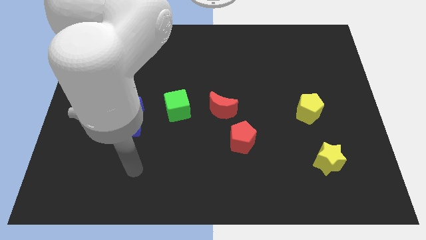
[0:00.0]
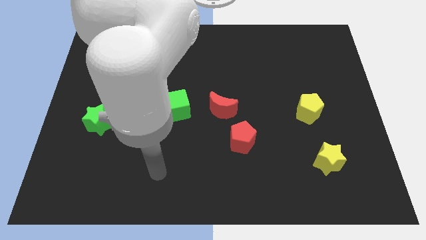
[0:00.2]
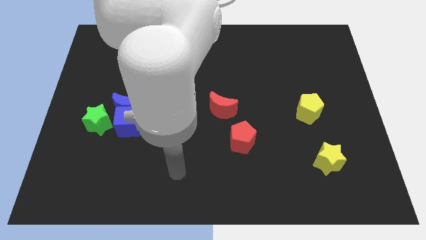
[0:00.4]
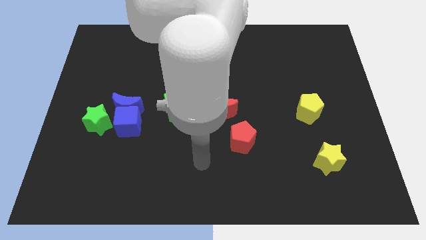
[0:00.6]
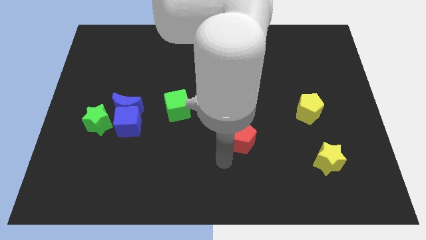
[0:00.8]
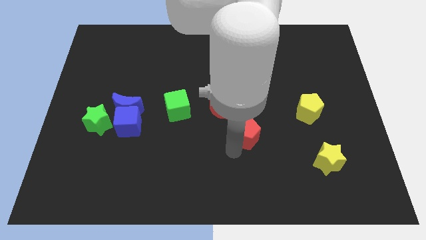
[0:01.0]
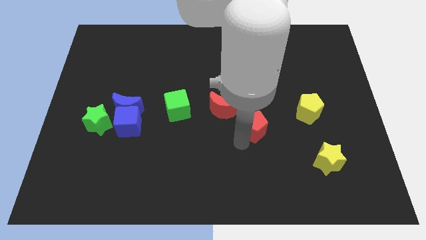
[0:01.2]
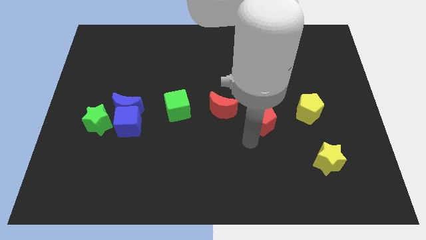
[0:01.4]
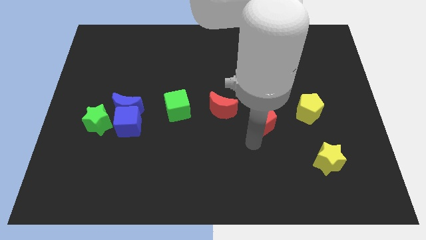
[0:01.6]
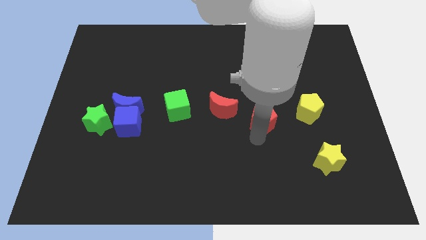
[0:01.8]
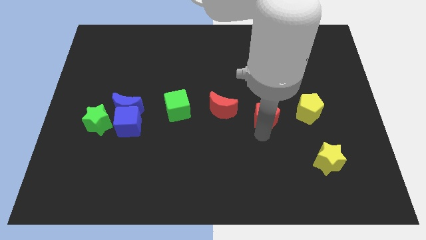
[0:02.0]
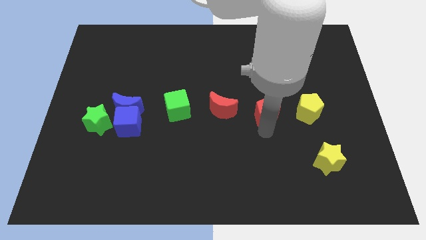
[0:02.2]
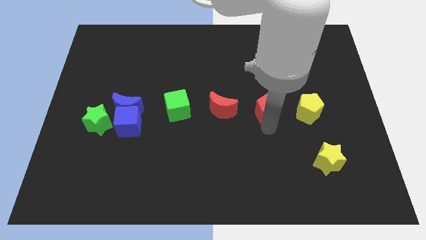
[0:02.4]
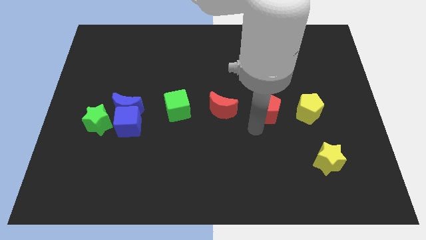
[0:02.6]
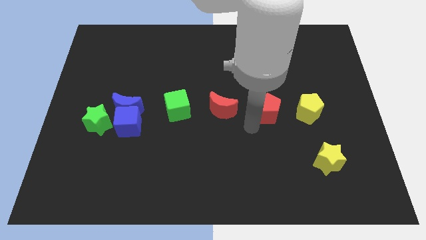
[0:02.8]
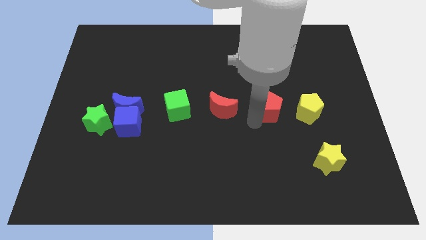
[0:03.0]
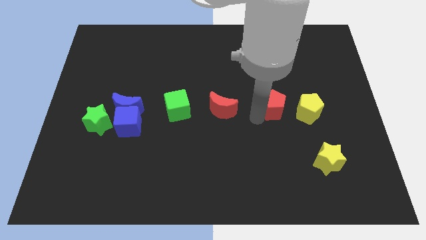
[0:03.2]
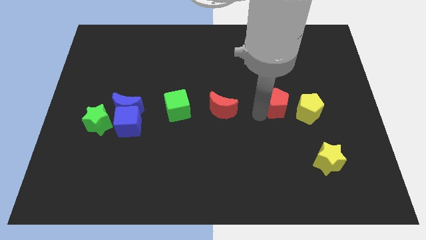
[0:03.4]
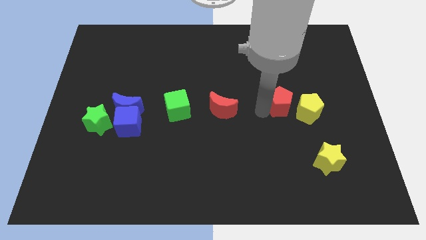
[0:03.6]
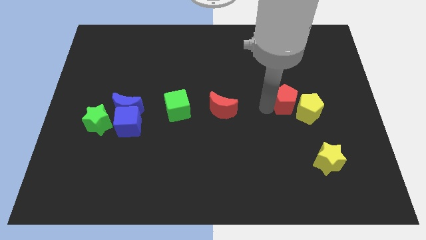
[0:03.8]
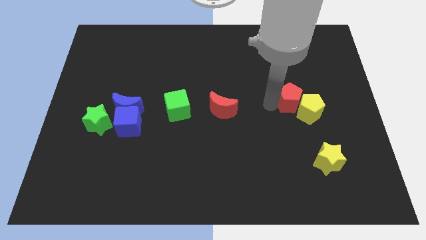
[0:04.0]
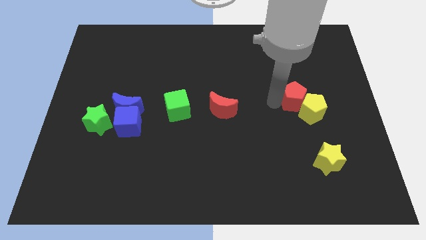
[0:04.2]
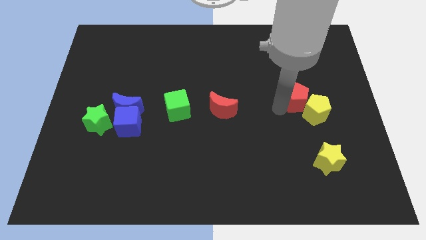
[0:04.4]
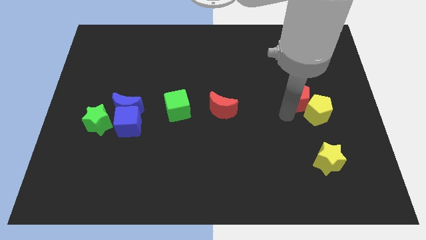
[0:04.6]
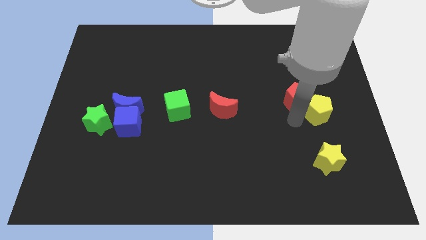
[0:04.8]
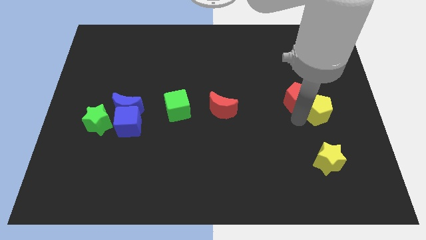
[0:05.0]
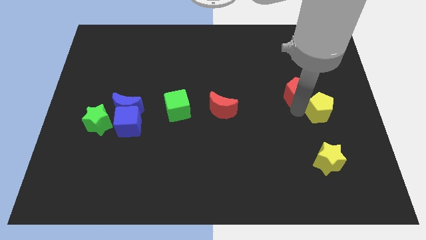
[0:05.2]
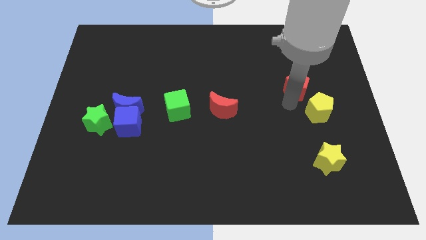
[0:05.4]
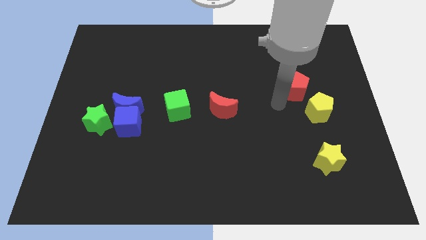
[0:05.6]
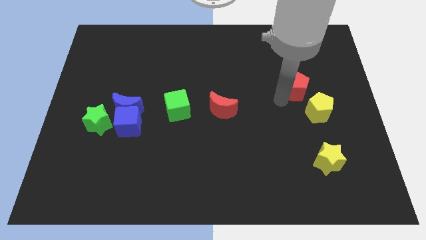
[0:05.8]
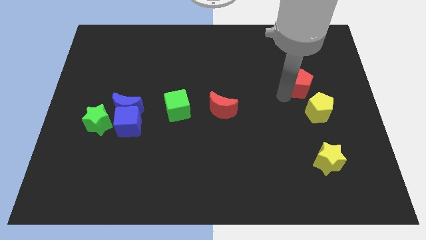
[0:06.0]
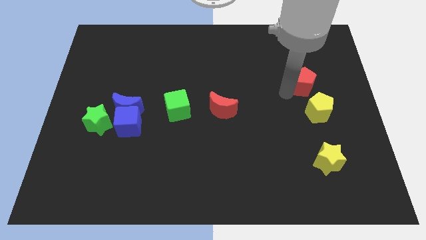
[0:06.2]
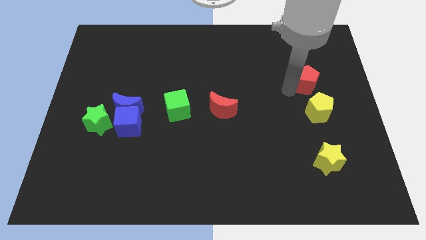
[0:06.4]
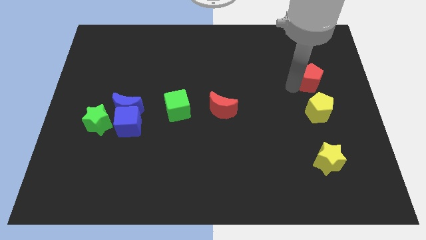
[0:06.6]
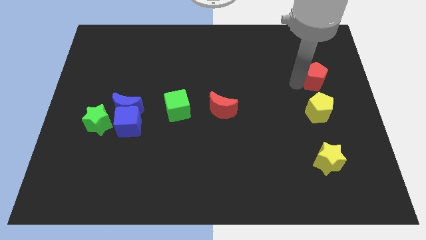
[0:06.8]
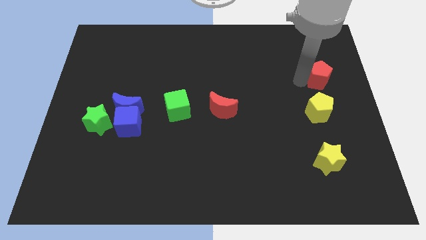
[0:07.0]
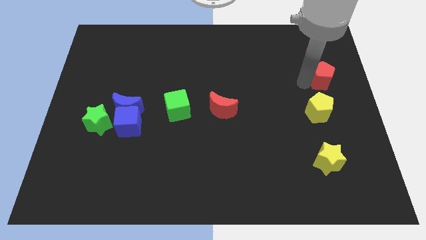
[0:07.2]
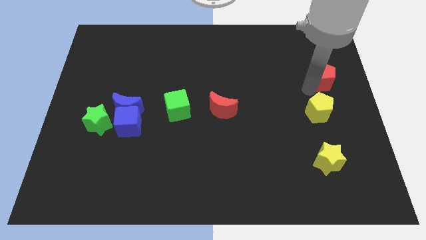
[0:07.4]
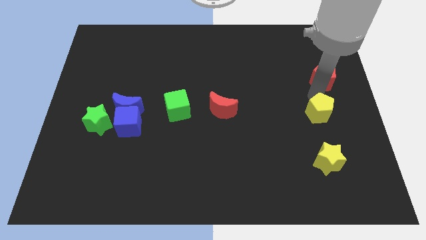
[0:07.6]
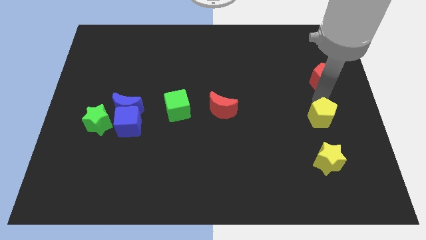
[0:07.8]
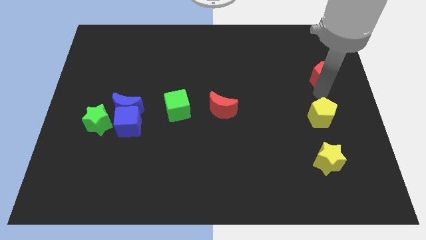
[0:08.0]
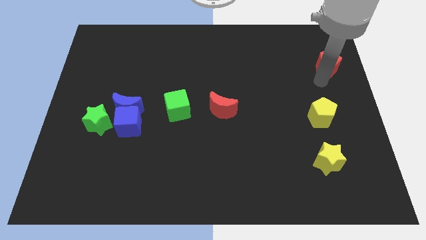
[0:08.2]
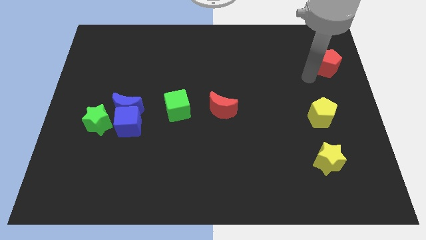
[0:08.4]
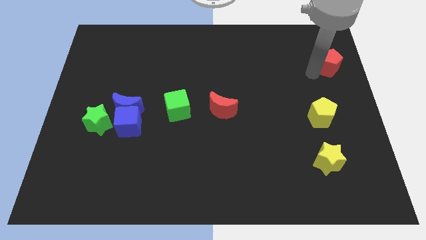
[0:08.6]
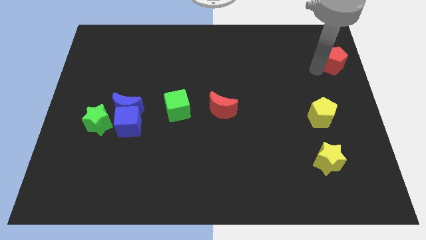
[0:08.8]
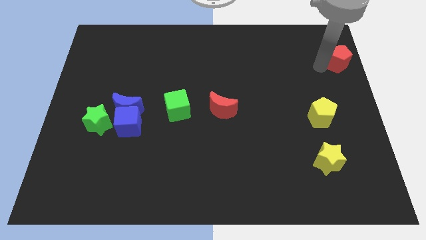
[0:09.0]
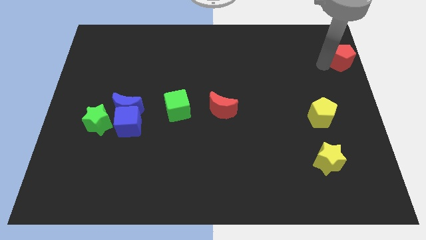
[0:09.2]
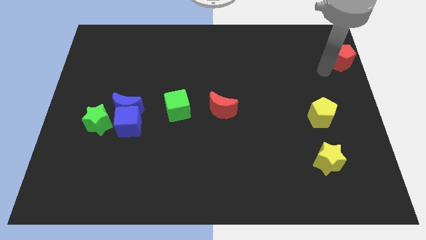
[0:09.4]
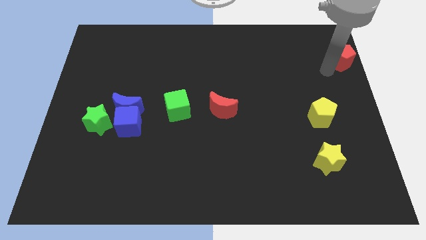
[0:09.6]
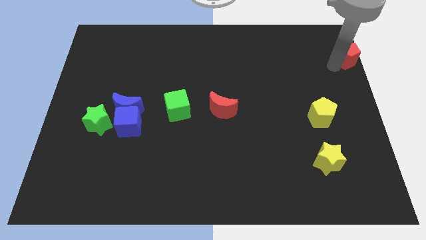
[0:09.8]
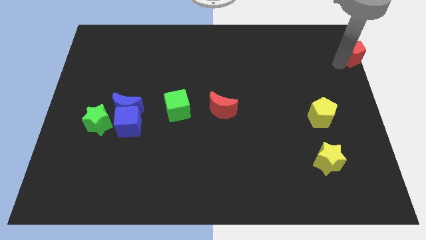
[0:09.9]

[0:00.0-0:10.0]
put the red pentagon to the top right

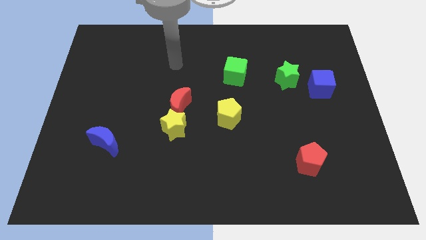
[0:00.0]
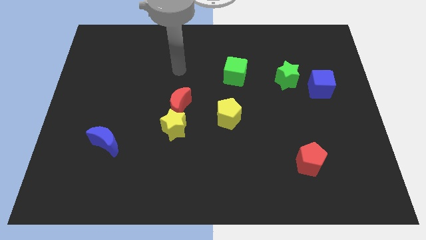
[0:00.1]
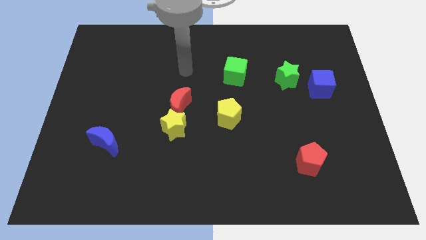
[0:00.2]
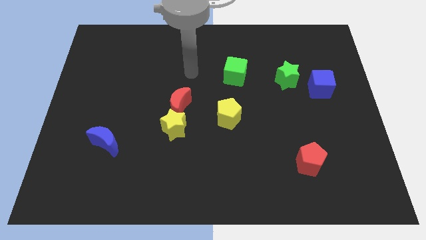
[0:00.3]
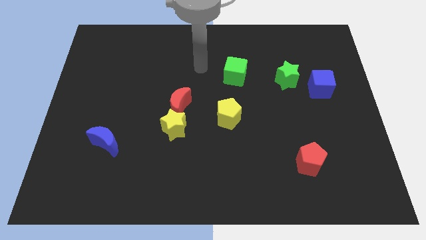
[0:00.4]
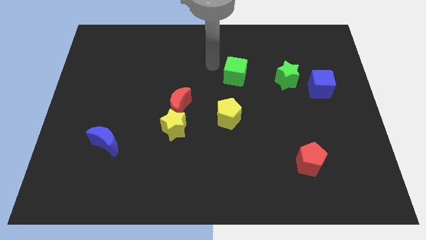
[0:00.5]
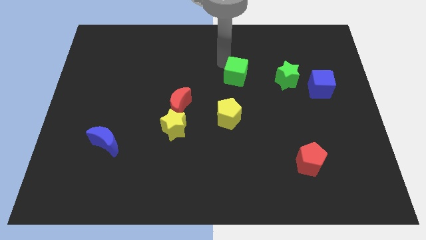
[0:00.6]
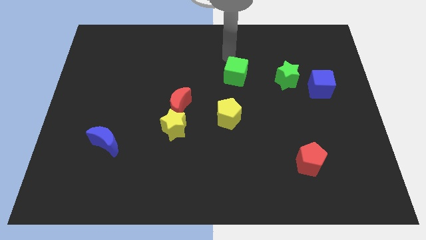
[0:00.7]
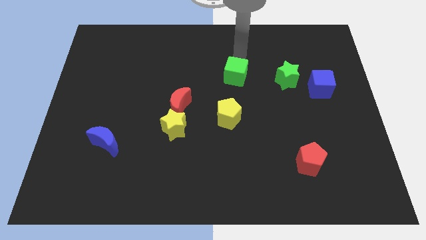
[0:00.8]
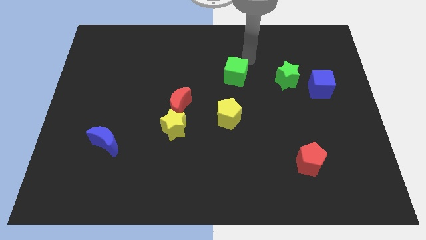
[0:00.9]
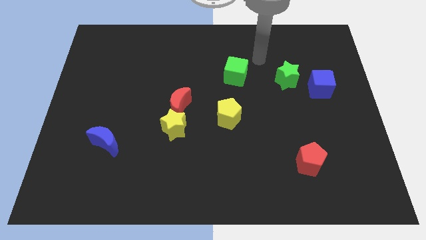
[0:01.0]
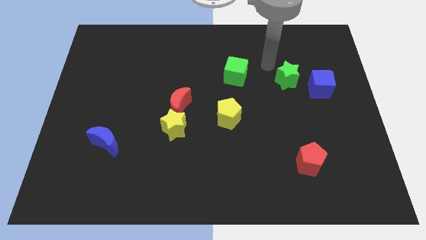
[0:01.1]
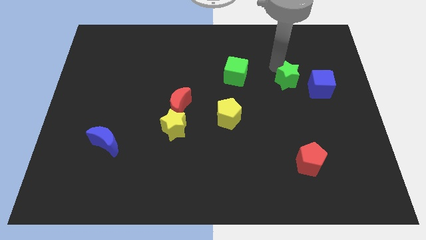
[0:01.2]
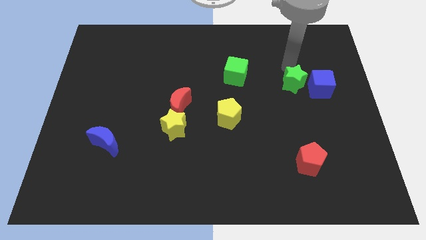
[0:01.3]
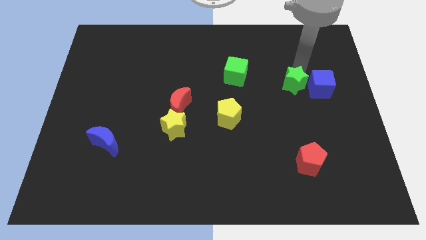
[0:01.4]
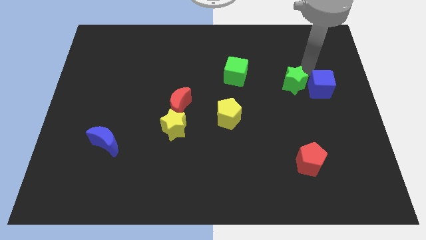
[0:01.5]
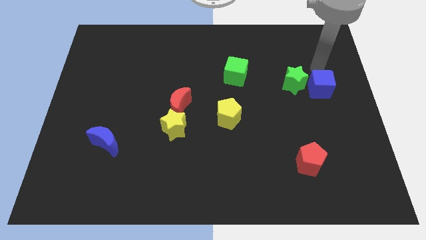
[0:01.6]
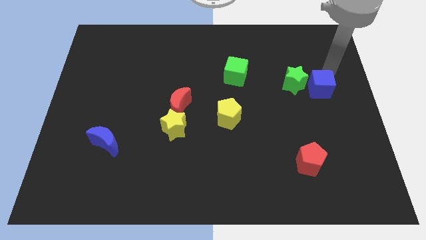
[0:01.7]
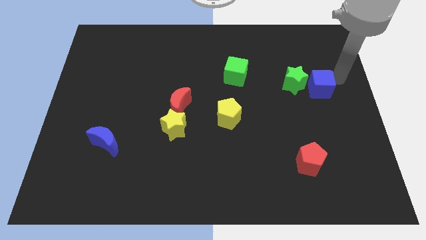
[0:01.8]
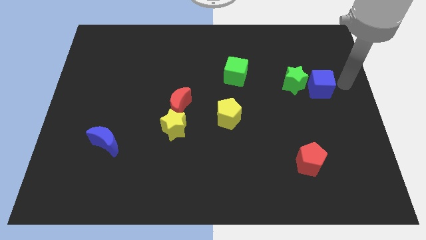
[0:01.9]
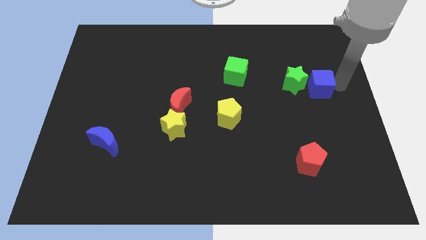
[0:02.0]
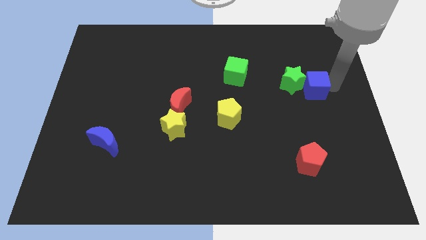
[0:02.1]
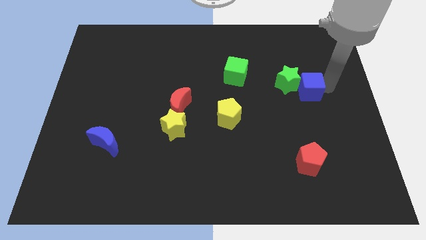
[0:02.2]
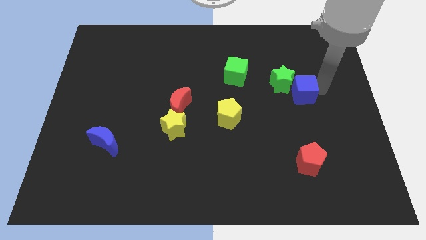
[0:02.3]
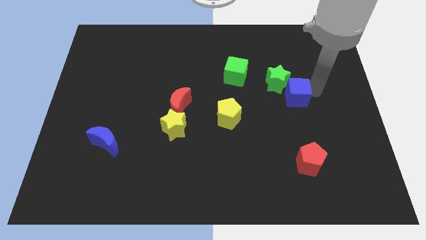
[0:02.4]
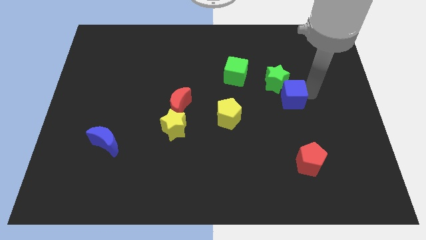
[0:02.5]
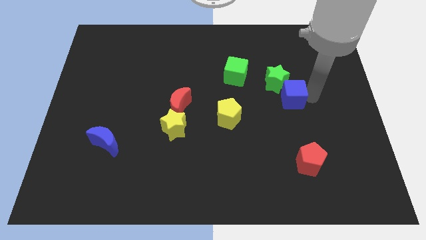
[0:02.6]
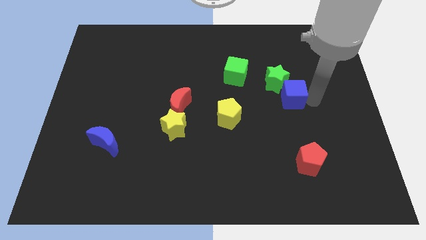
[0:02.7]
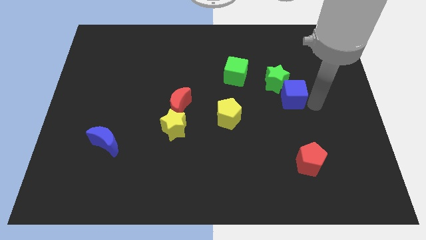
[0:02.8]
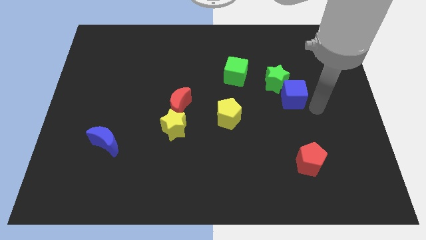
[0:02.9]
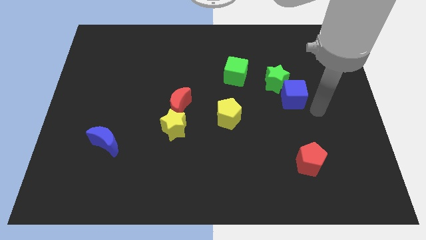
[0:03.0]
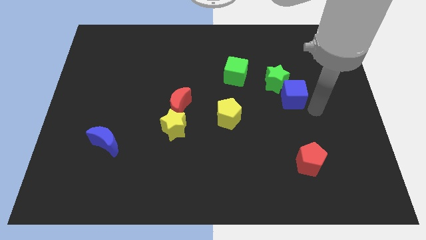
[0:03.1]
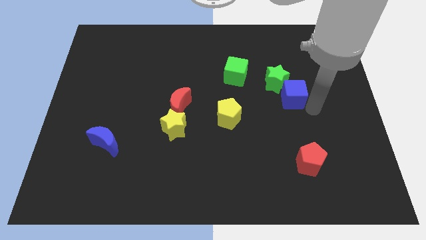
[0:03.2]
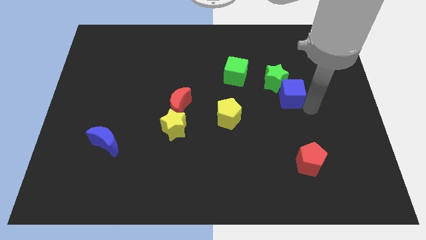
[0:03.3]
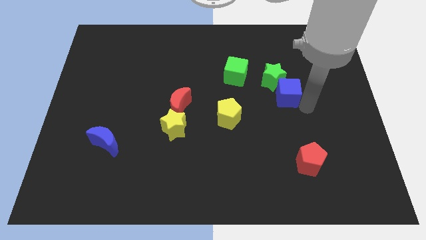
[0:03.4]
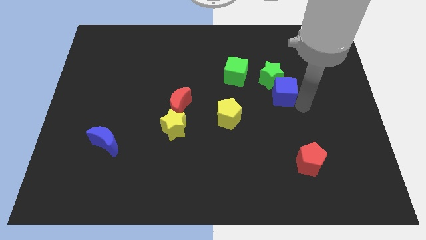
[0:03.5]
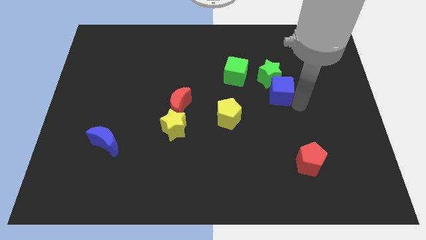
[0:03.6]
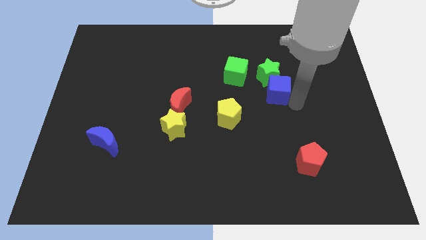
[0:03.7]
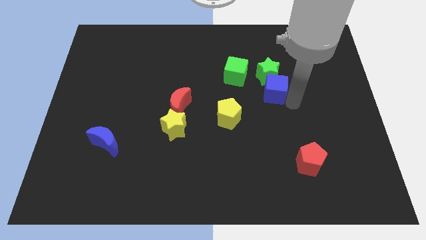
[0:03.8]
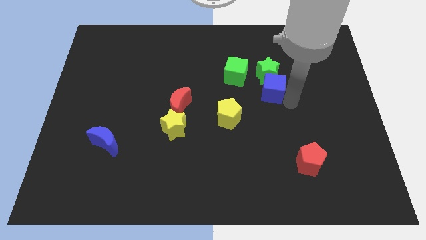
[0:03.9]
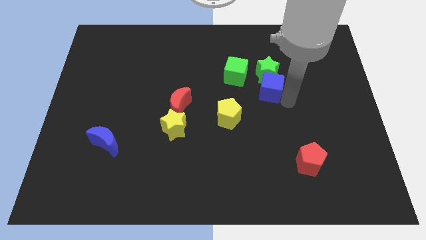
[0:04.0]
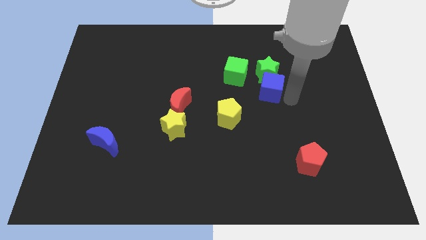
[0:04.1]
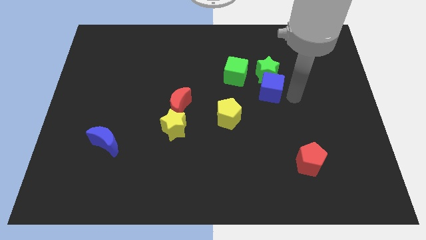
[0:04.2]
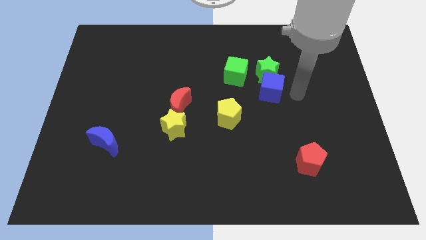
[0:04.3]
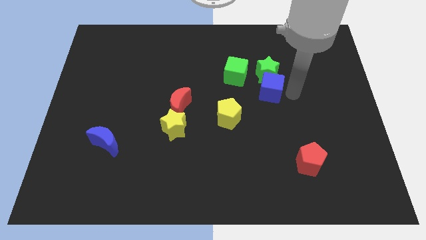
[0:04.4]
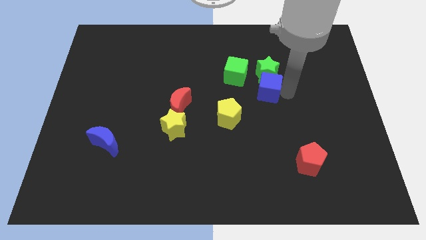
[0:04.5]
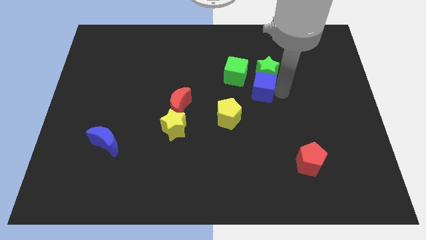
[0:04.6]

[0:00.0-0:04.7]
move the blue cube to the center of the board
